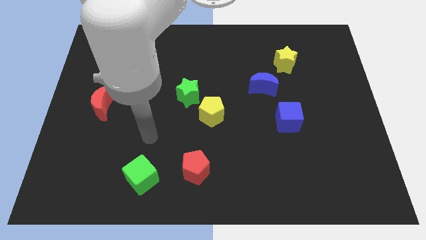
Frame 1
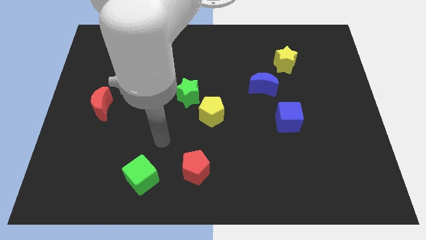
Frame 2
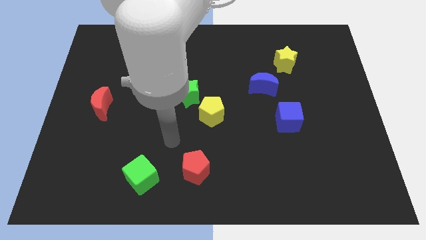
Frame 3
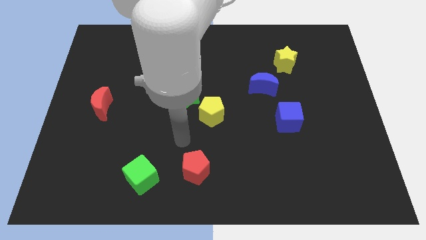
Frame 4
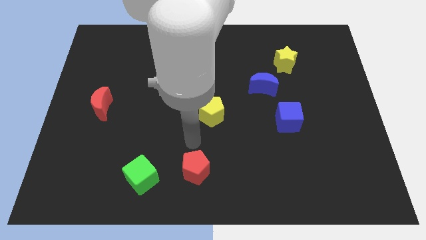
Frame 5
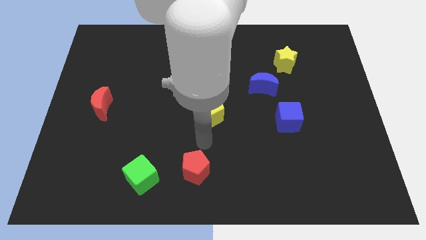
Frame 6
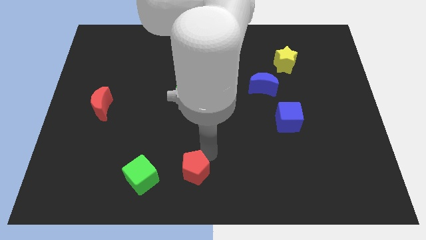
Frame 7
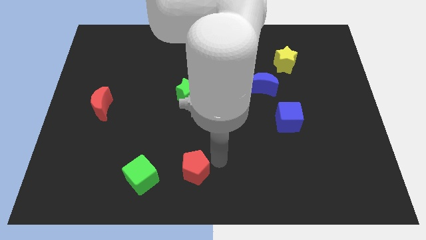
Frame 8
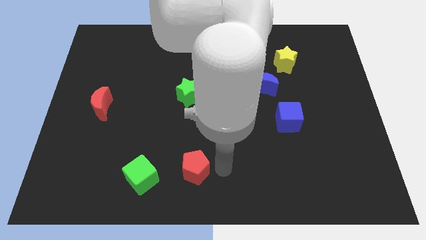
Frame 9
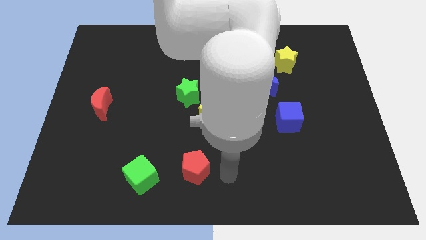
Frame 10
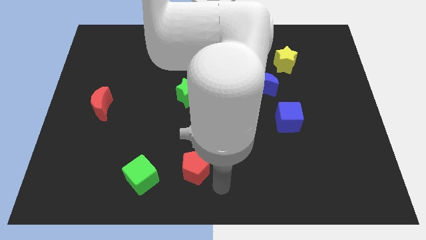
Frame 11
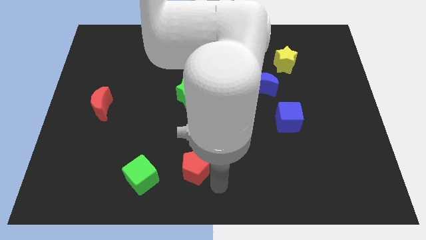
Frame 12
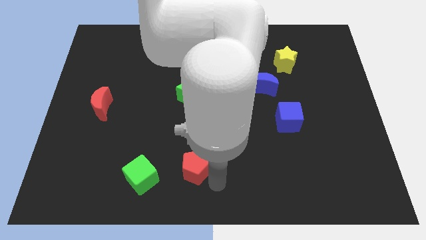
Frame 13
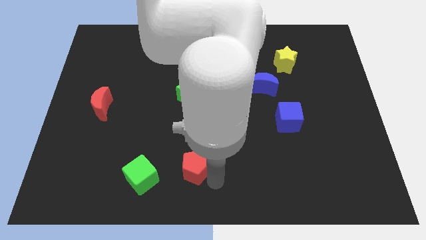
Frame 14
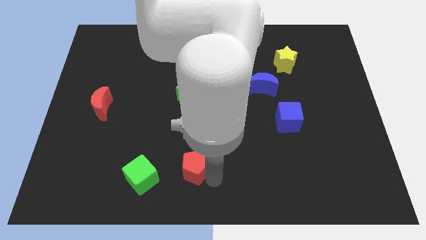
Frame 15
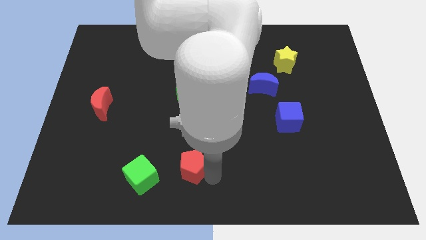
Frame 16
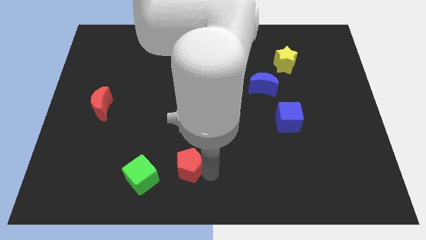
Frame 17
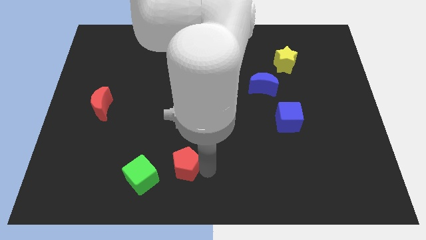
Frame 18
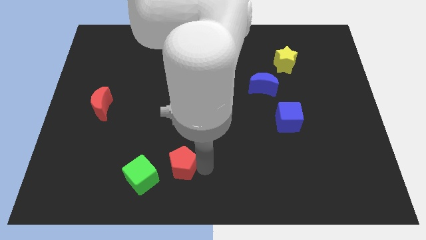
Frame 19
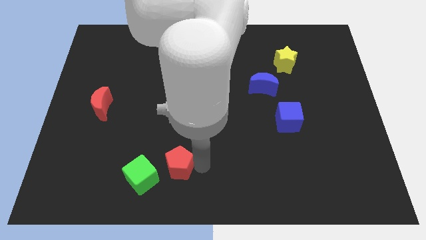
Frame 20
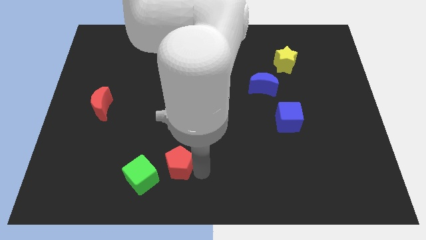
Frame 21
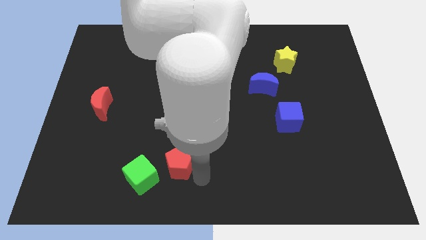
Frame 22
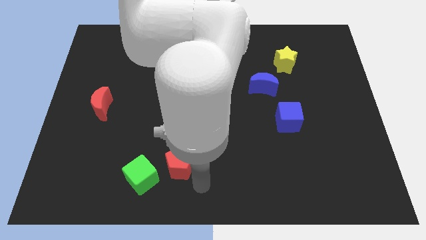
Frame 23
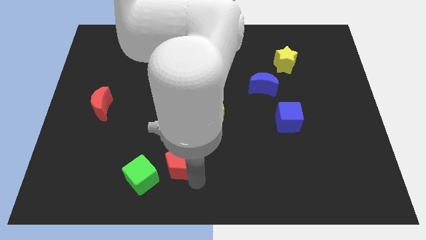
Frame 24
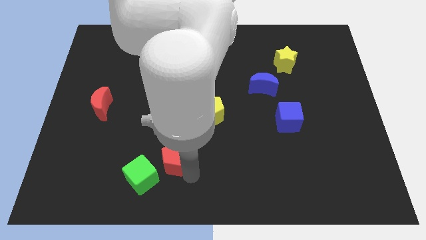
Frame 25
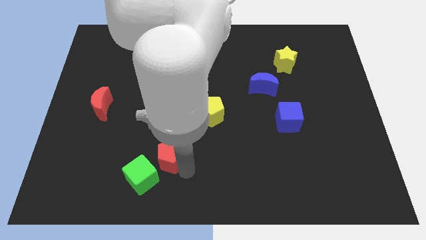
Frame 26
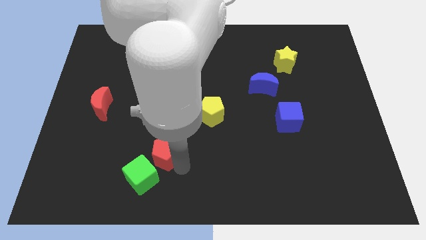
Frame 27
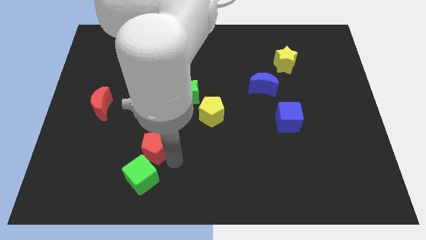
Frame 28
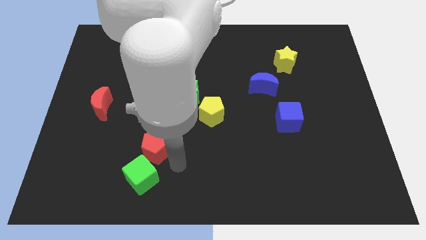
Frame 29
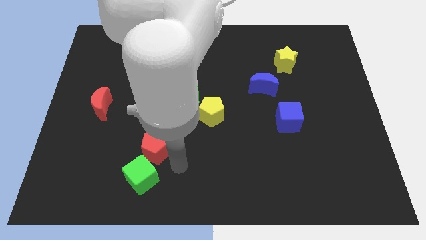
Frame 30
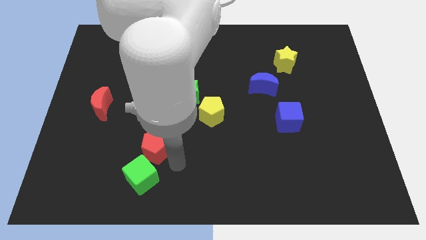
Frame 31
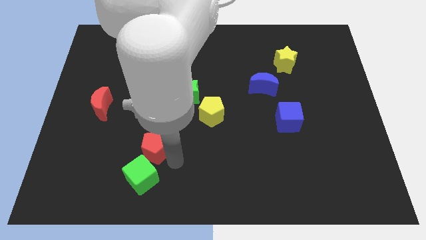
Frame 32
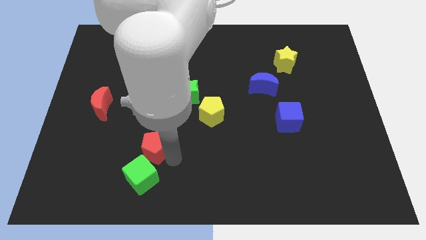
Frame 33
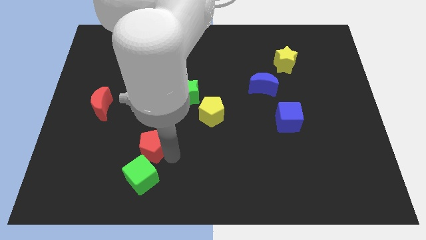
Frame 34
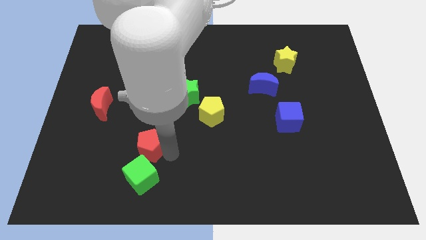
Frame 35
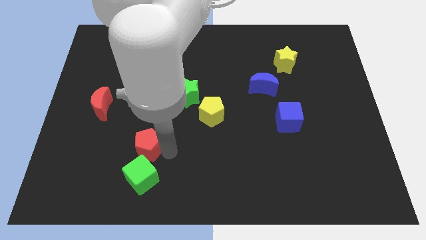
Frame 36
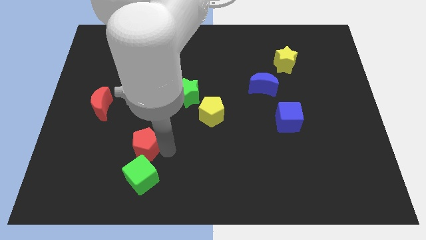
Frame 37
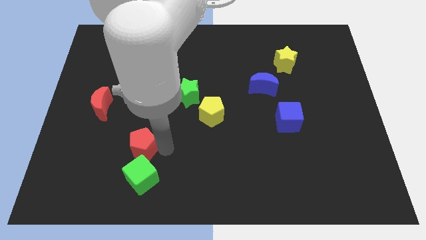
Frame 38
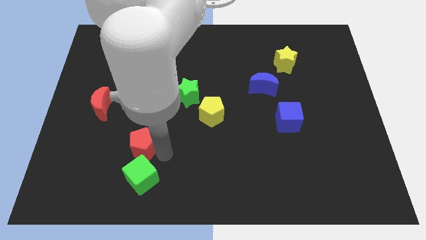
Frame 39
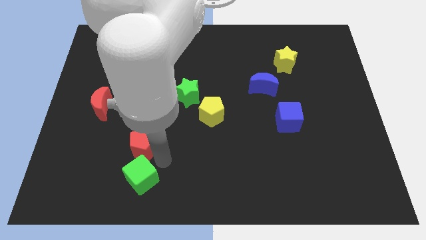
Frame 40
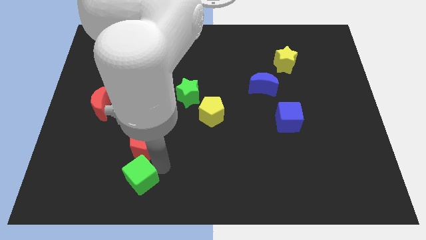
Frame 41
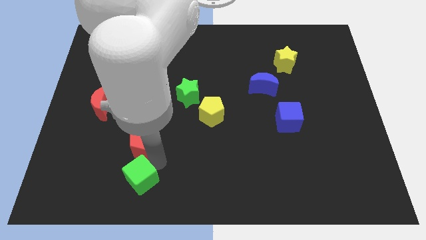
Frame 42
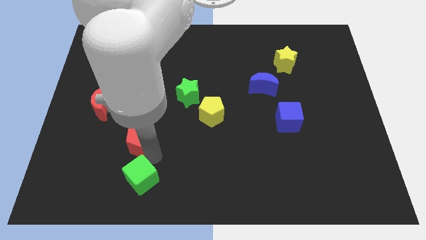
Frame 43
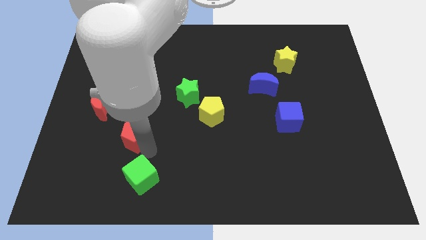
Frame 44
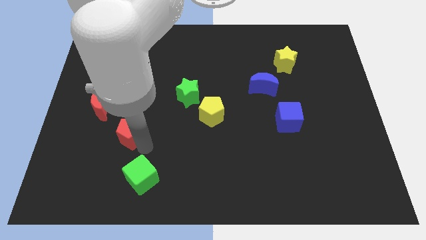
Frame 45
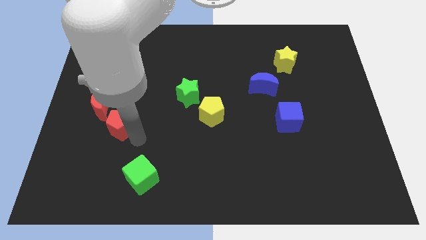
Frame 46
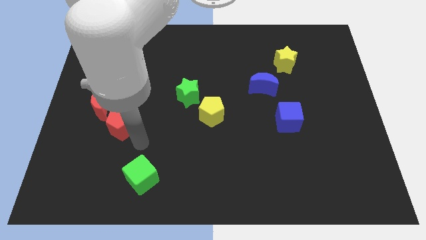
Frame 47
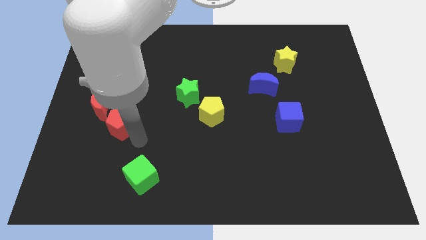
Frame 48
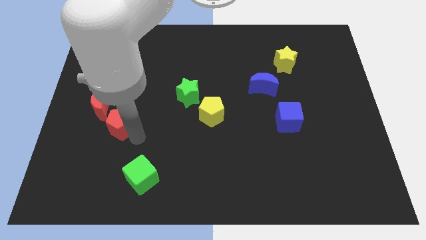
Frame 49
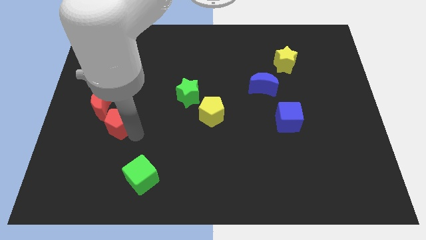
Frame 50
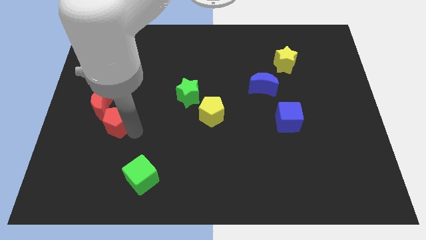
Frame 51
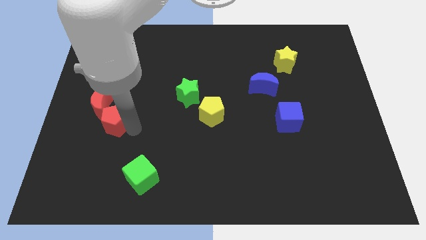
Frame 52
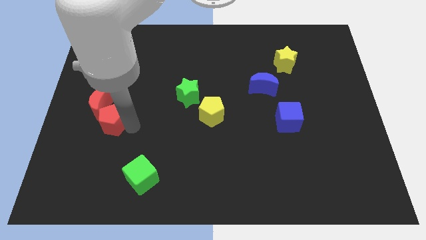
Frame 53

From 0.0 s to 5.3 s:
put the red pentagon close to the red moon

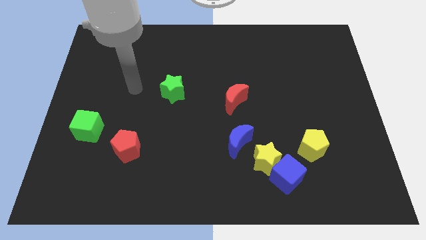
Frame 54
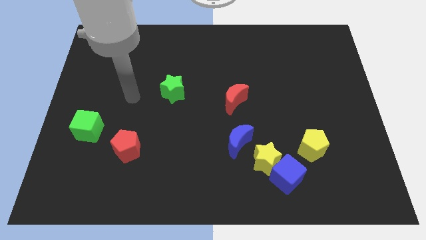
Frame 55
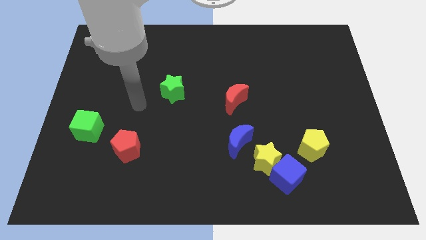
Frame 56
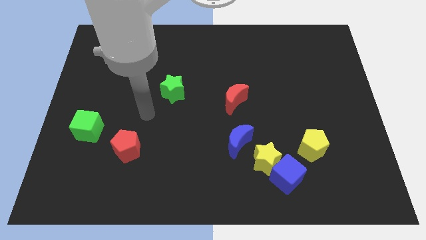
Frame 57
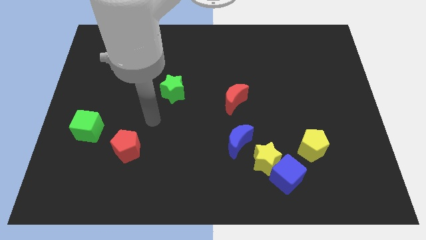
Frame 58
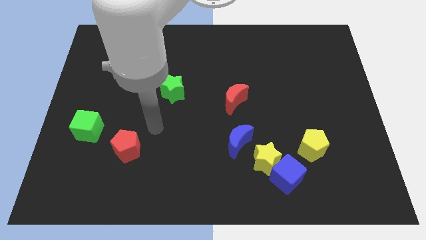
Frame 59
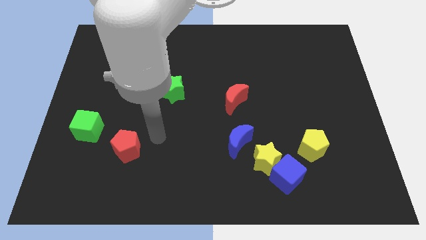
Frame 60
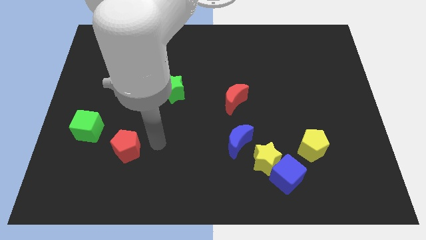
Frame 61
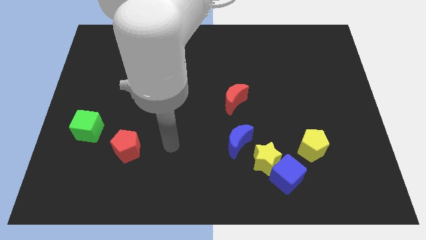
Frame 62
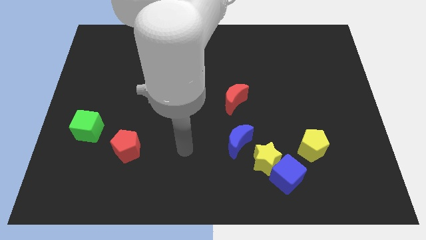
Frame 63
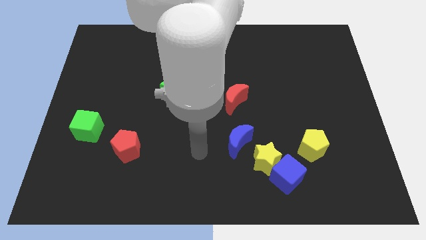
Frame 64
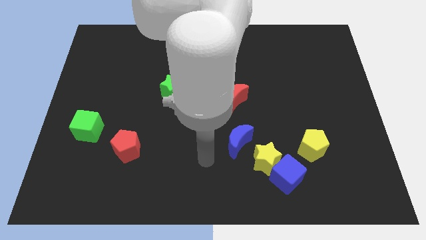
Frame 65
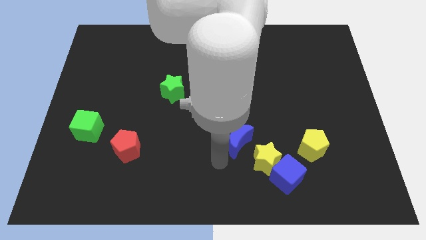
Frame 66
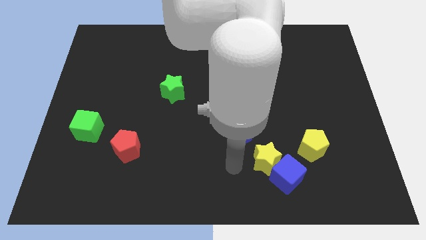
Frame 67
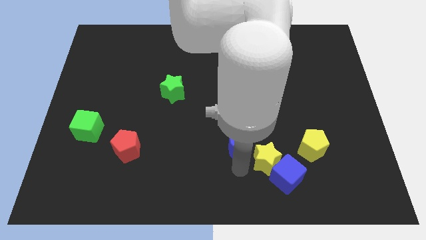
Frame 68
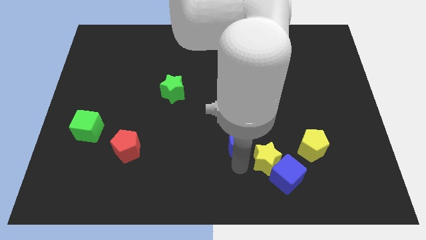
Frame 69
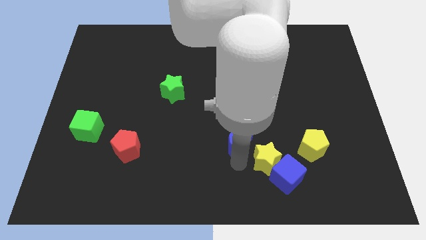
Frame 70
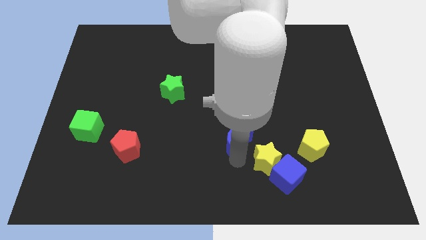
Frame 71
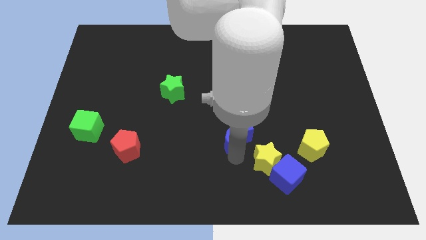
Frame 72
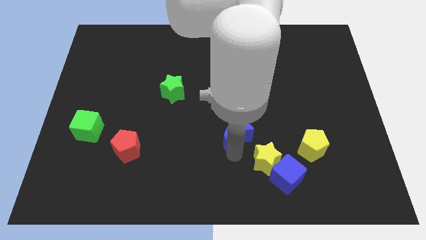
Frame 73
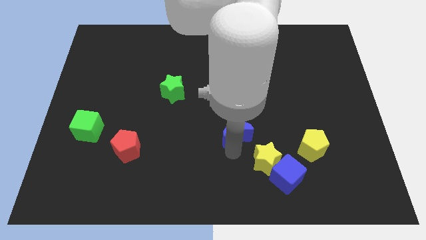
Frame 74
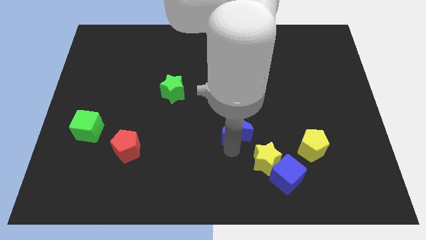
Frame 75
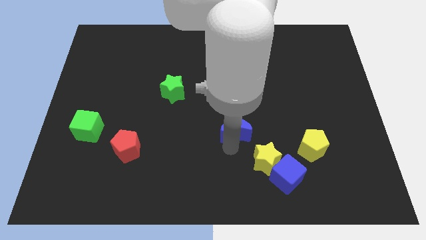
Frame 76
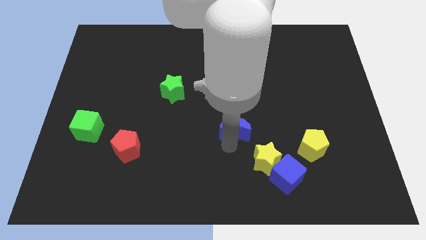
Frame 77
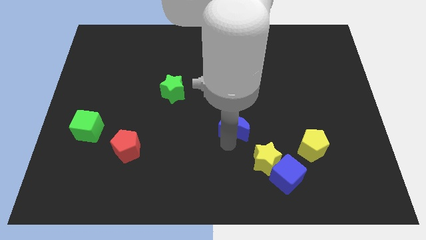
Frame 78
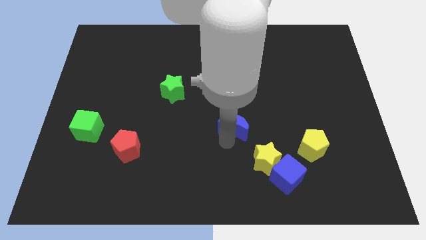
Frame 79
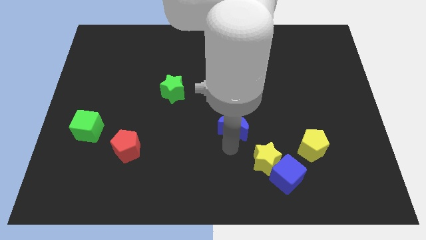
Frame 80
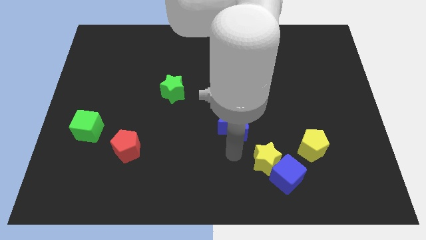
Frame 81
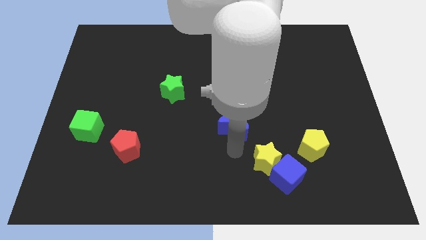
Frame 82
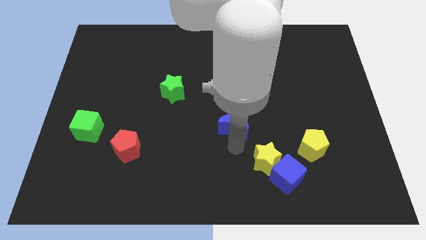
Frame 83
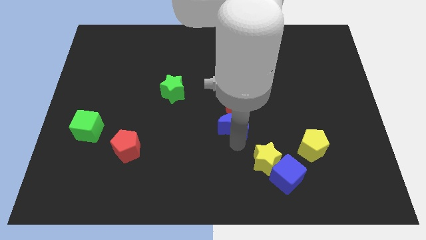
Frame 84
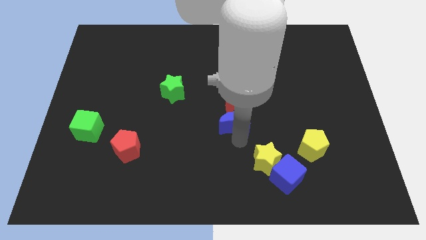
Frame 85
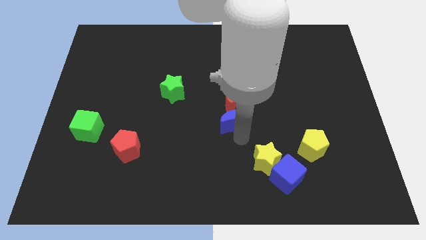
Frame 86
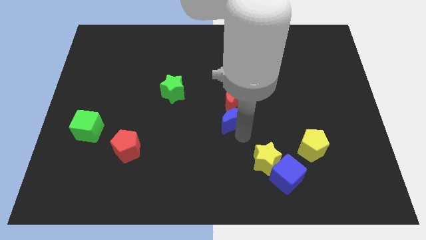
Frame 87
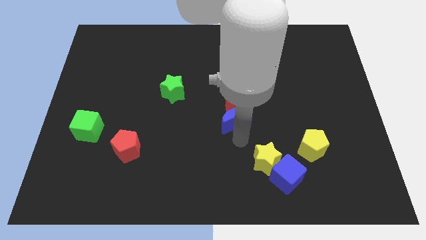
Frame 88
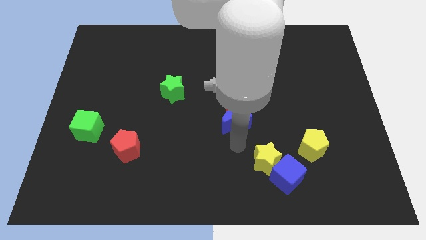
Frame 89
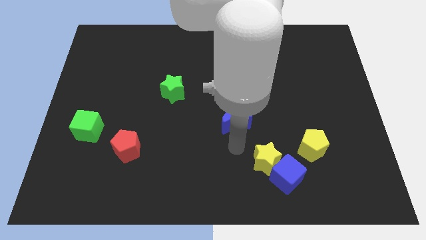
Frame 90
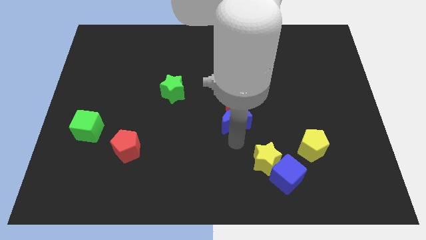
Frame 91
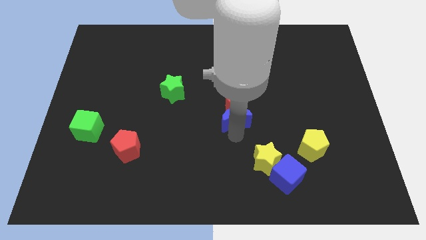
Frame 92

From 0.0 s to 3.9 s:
slide the blue moon close to the red moon
